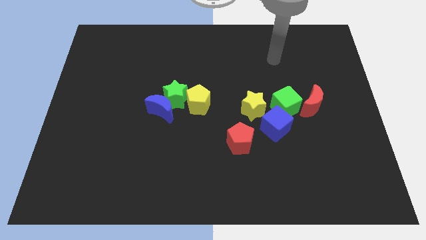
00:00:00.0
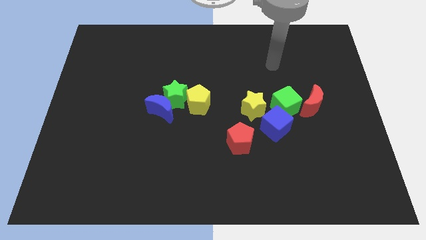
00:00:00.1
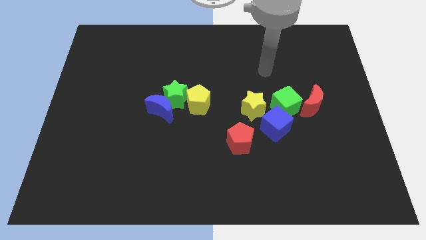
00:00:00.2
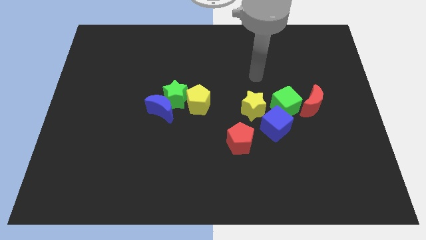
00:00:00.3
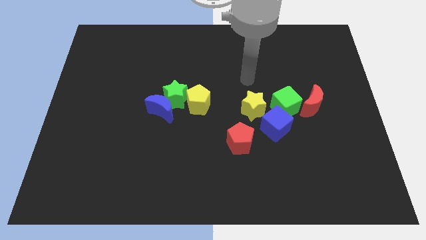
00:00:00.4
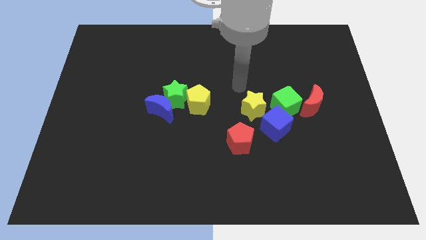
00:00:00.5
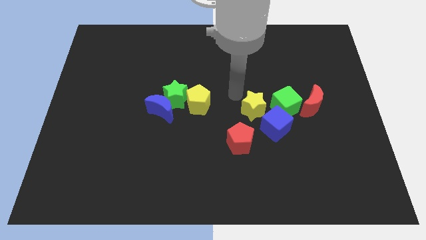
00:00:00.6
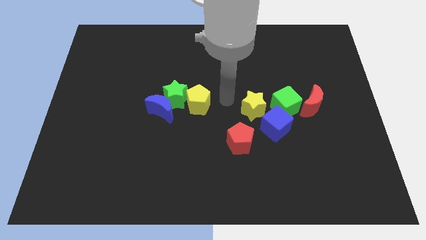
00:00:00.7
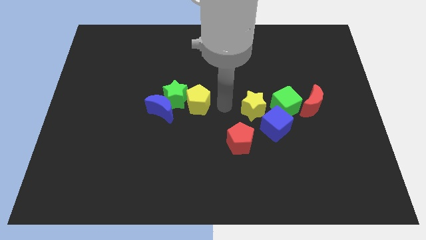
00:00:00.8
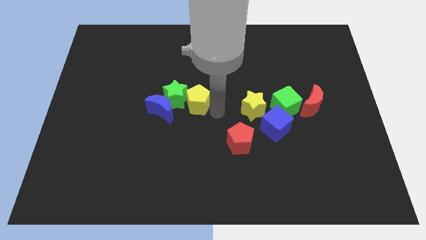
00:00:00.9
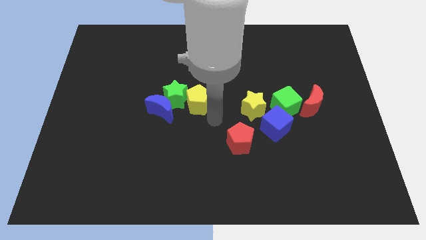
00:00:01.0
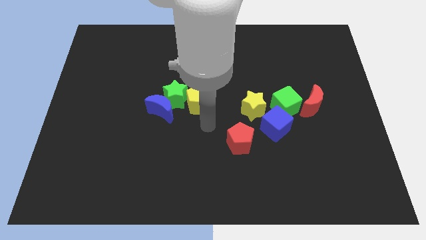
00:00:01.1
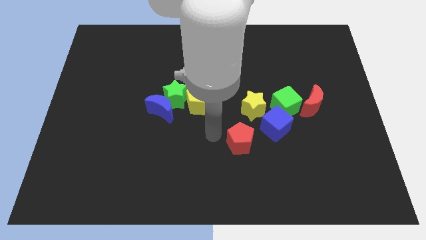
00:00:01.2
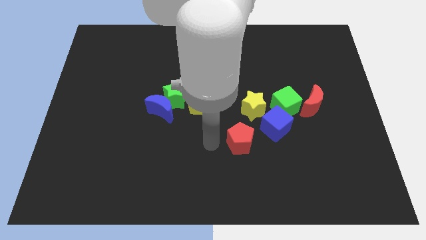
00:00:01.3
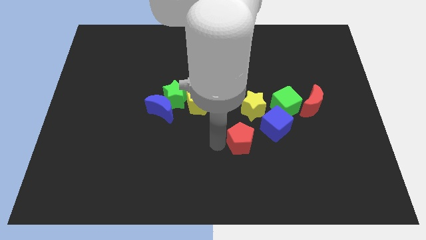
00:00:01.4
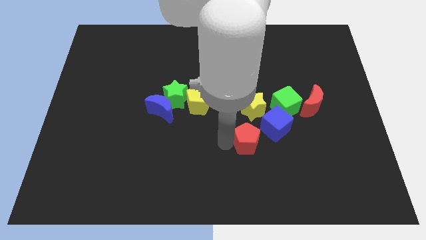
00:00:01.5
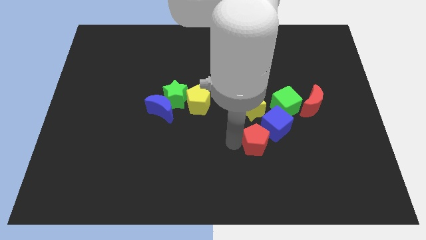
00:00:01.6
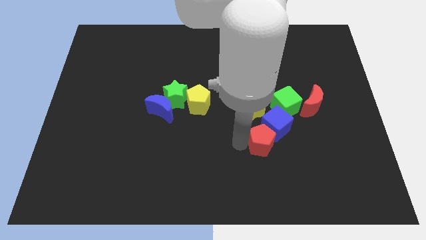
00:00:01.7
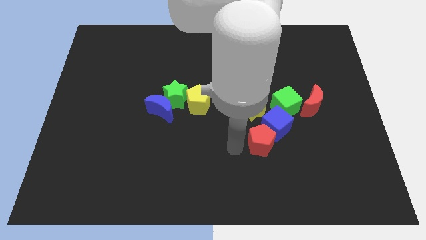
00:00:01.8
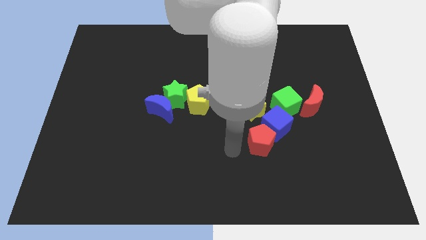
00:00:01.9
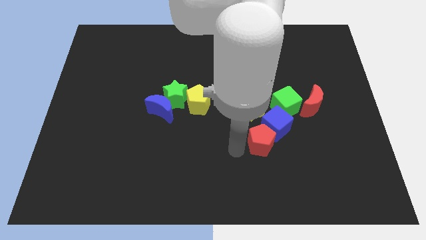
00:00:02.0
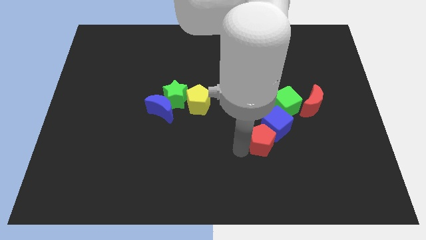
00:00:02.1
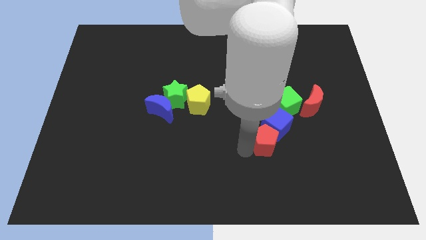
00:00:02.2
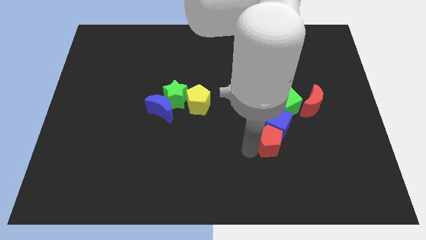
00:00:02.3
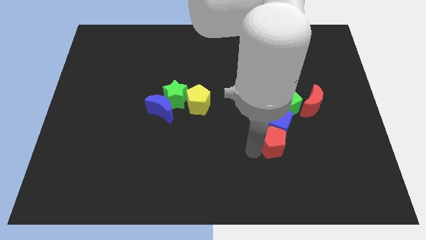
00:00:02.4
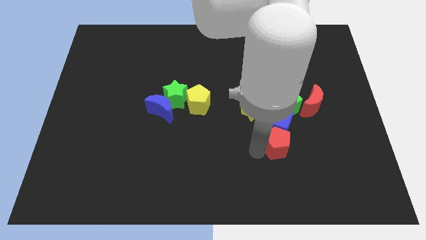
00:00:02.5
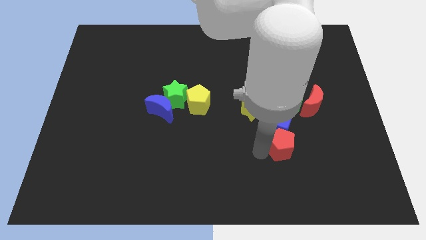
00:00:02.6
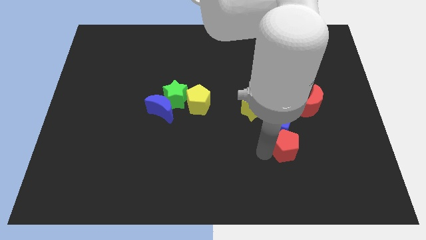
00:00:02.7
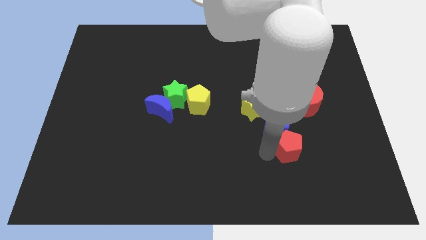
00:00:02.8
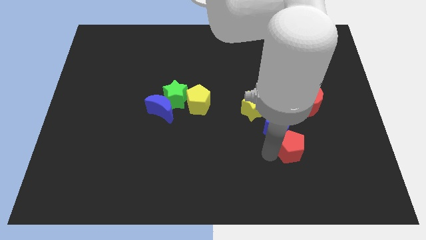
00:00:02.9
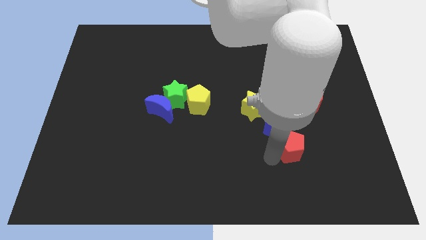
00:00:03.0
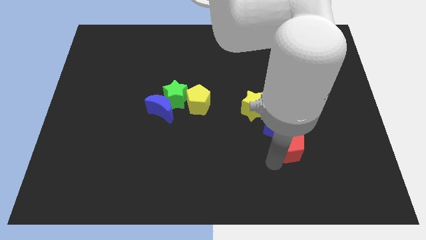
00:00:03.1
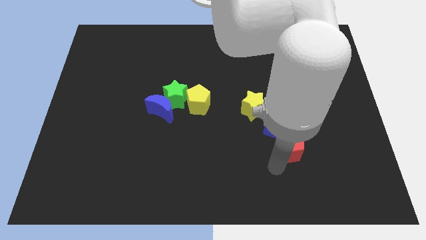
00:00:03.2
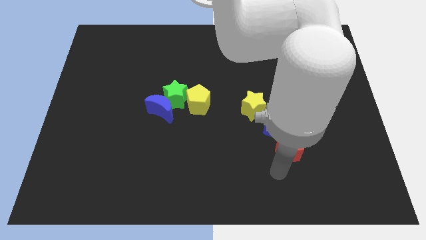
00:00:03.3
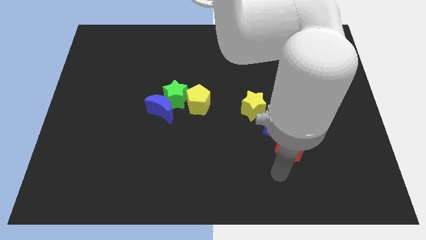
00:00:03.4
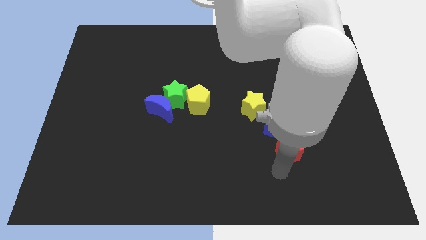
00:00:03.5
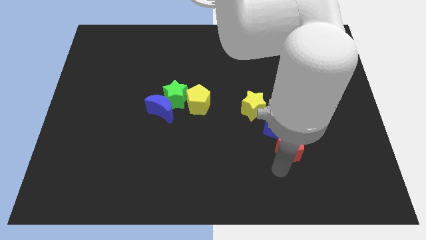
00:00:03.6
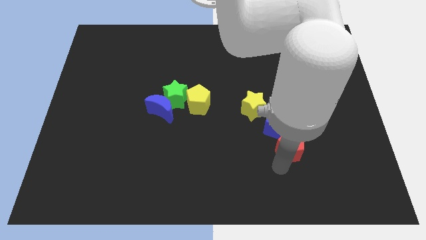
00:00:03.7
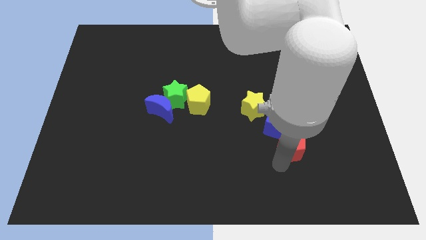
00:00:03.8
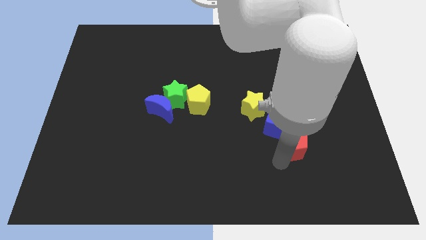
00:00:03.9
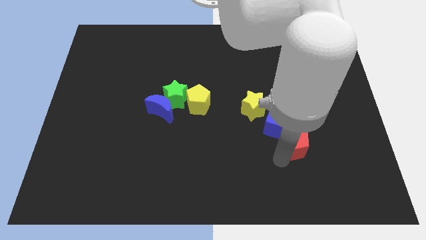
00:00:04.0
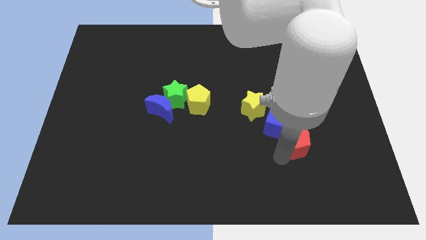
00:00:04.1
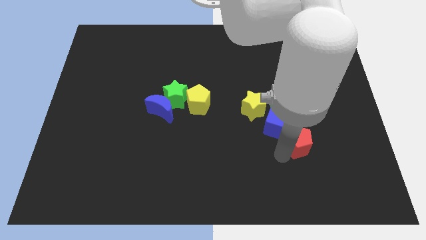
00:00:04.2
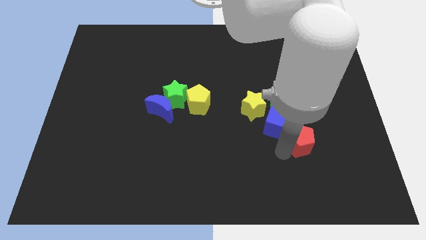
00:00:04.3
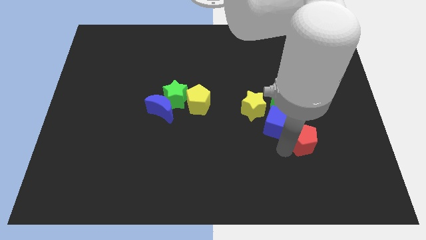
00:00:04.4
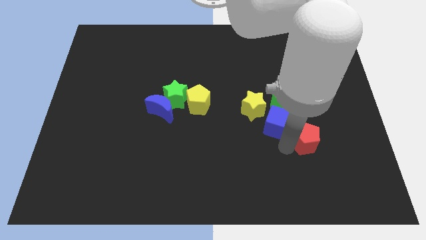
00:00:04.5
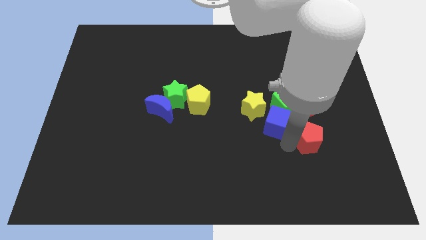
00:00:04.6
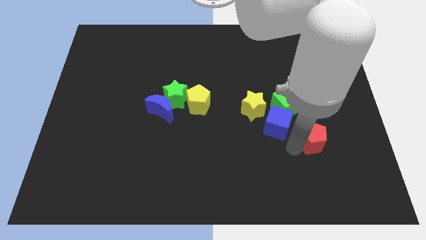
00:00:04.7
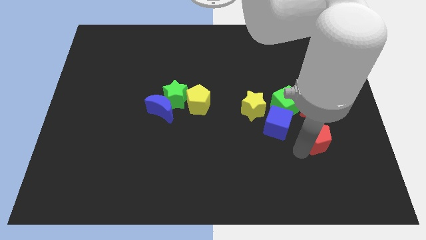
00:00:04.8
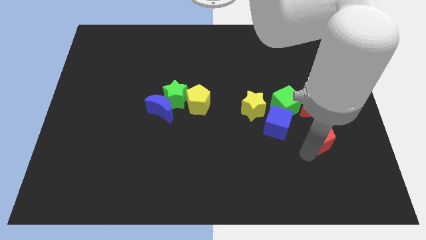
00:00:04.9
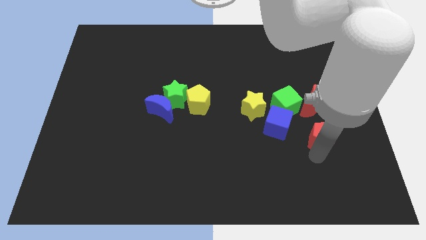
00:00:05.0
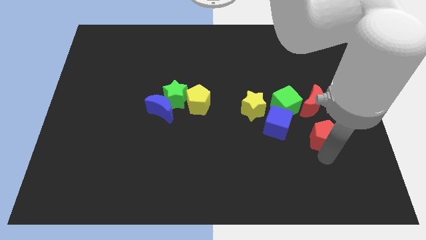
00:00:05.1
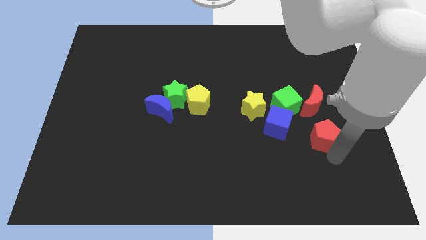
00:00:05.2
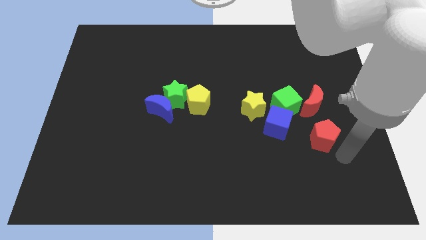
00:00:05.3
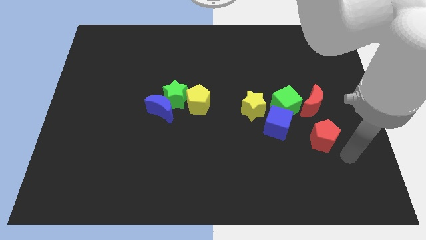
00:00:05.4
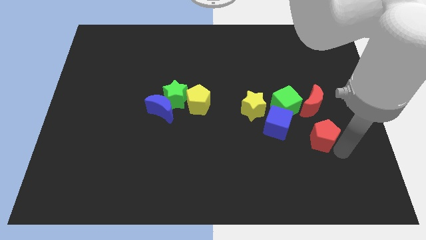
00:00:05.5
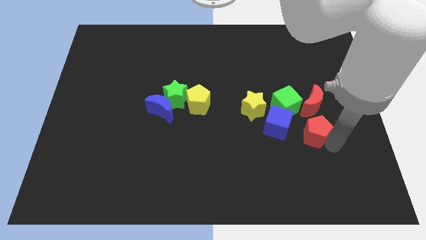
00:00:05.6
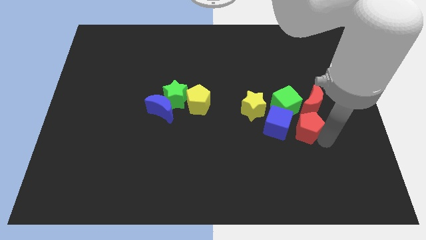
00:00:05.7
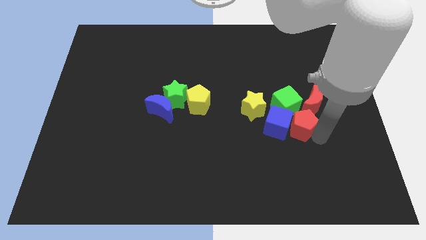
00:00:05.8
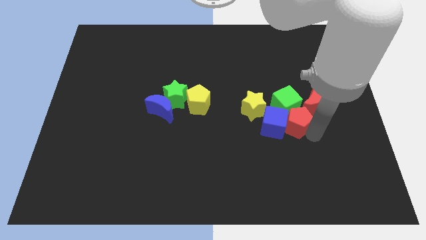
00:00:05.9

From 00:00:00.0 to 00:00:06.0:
put the red pentagon close to the green cube

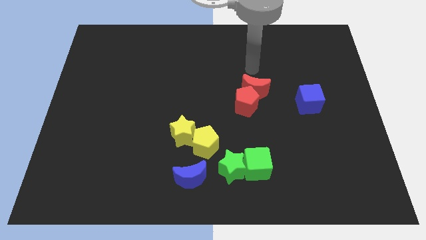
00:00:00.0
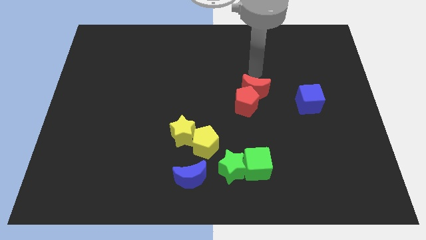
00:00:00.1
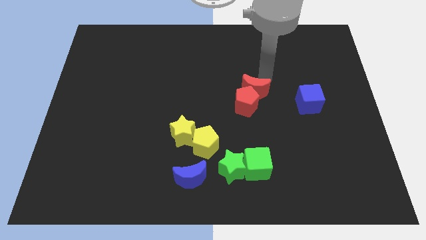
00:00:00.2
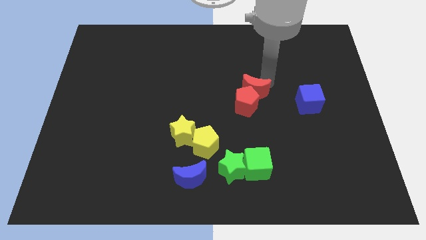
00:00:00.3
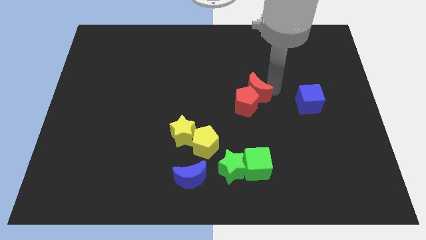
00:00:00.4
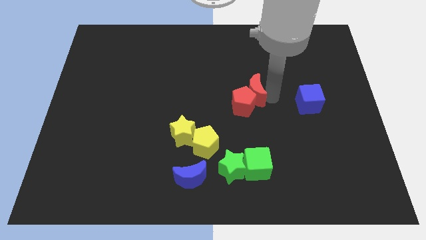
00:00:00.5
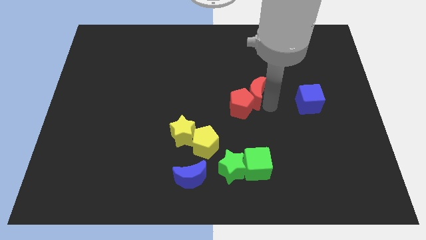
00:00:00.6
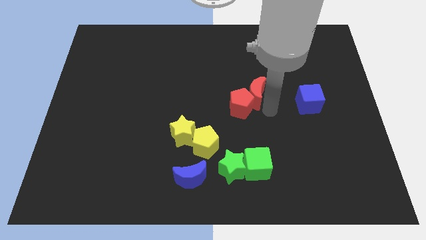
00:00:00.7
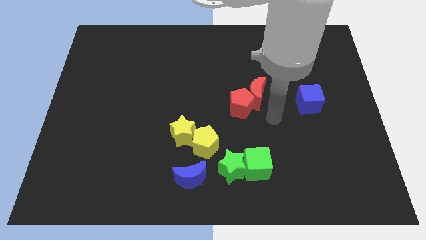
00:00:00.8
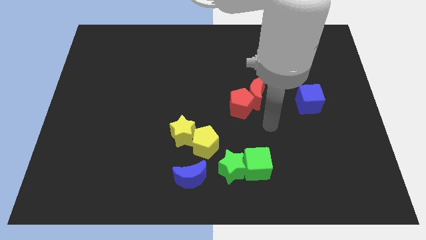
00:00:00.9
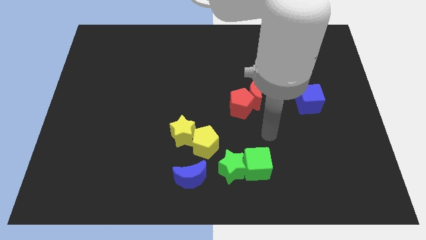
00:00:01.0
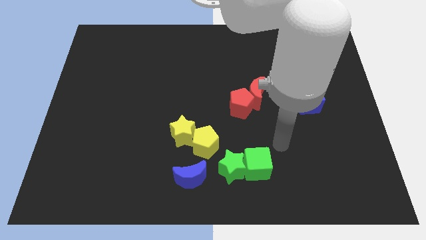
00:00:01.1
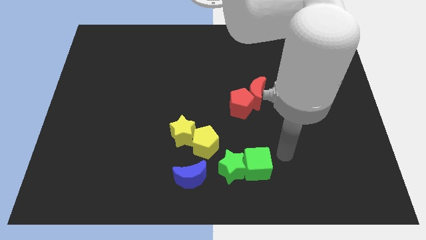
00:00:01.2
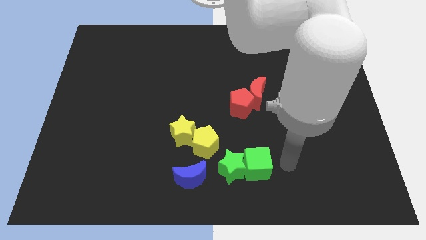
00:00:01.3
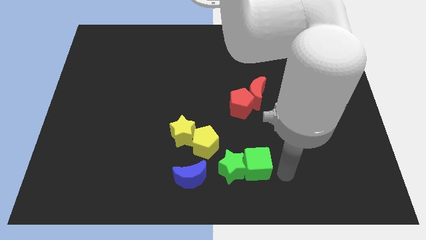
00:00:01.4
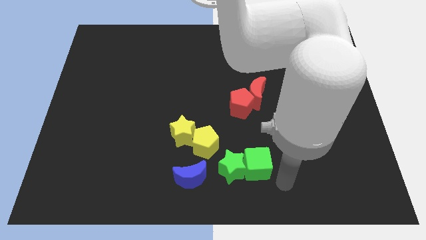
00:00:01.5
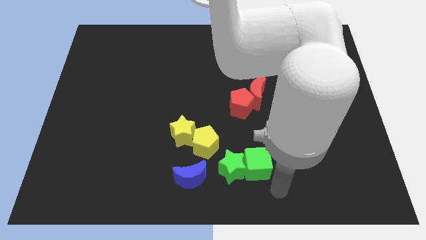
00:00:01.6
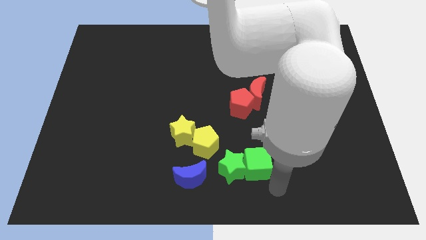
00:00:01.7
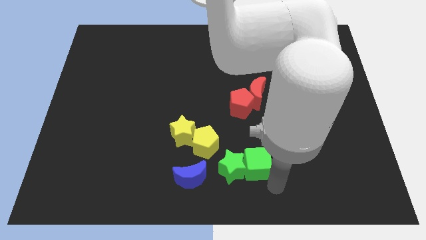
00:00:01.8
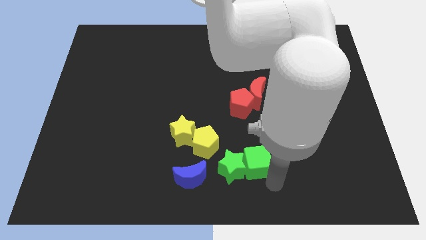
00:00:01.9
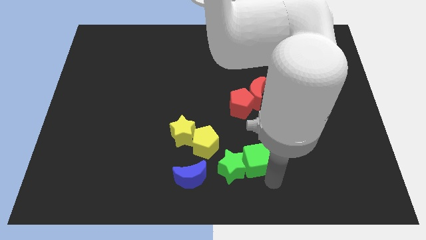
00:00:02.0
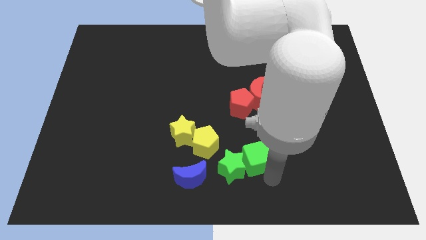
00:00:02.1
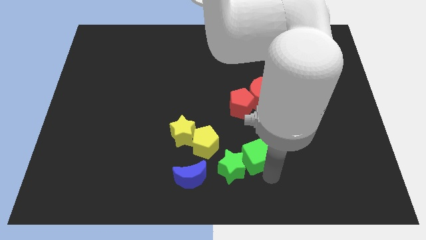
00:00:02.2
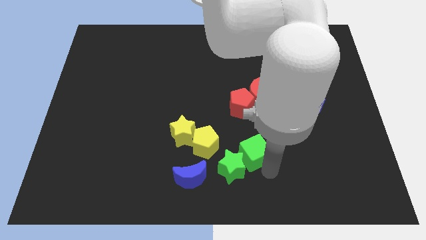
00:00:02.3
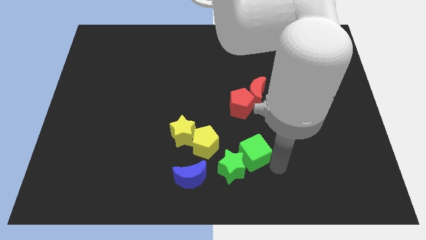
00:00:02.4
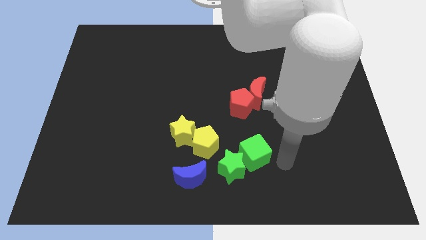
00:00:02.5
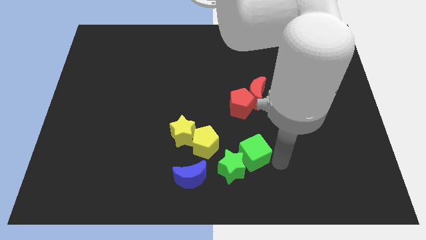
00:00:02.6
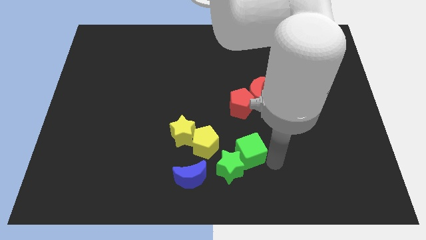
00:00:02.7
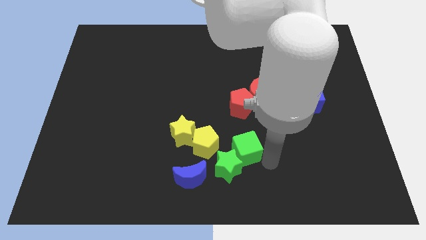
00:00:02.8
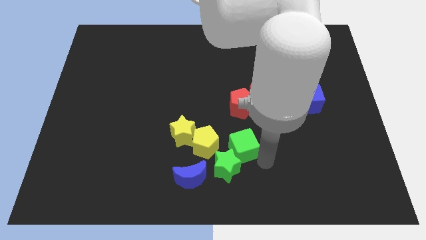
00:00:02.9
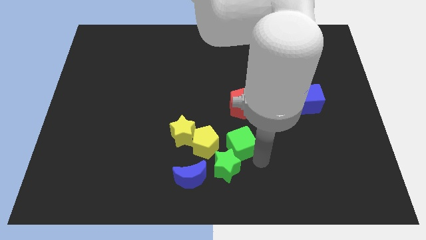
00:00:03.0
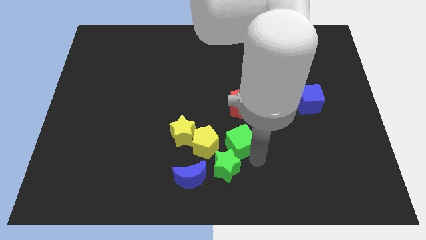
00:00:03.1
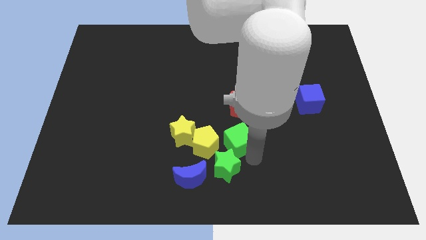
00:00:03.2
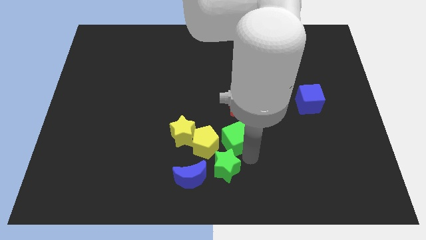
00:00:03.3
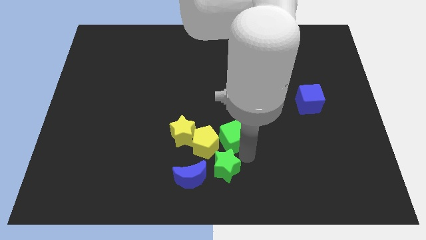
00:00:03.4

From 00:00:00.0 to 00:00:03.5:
put the green cube to the yellow pentagon
